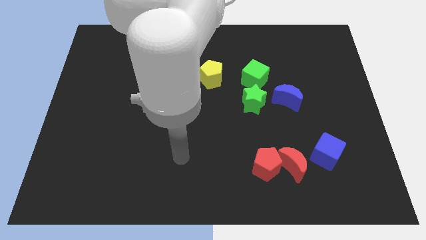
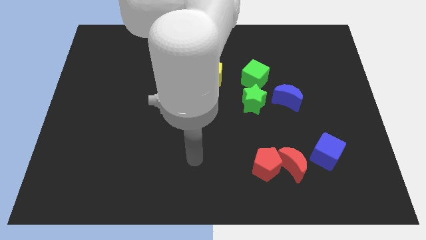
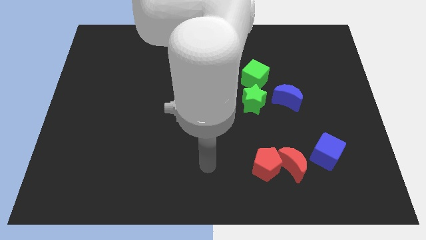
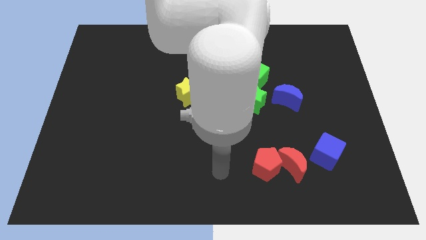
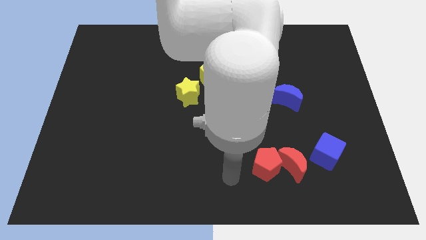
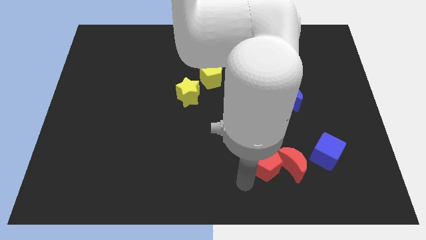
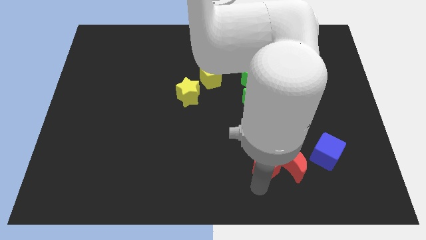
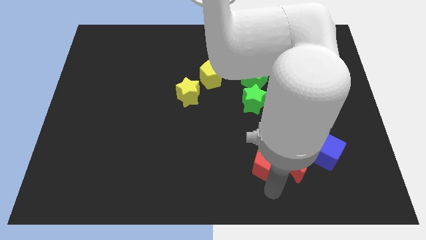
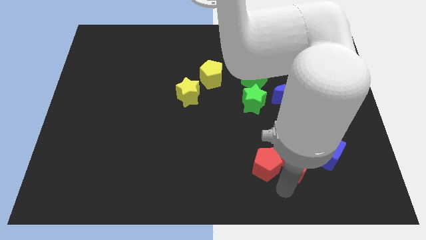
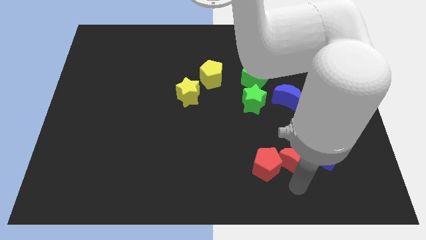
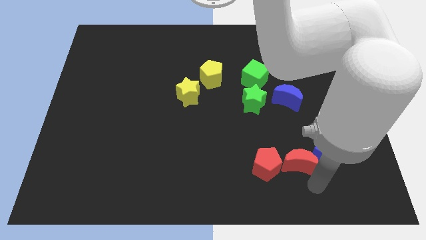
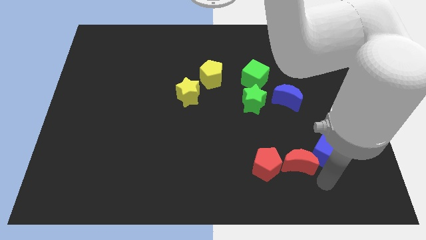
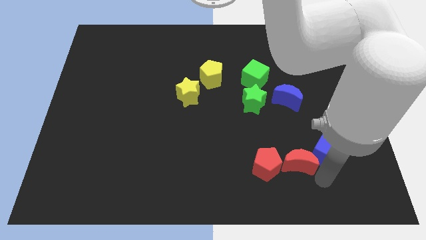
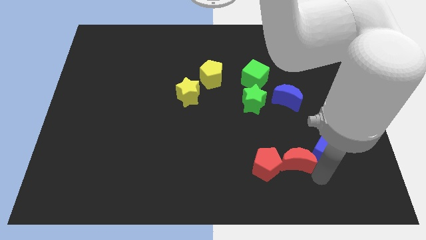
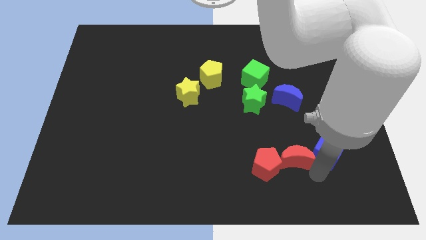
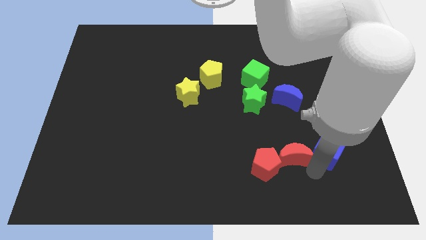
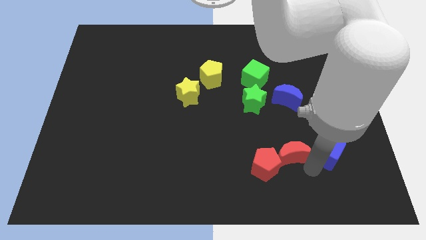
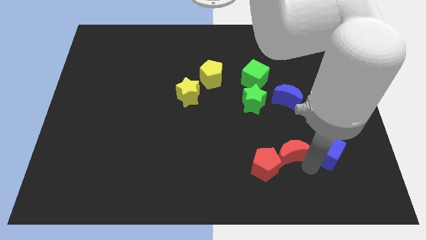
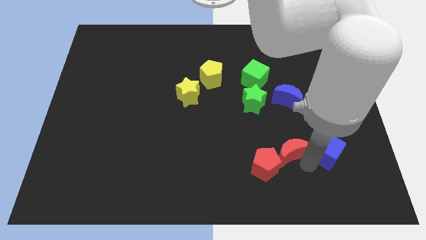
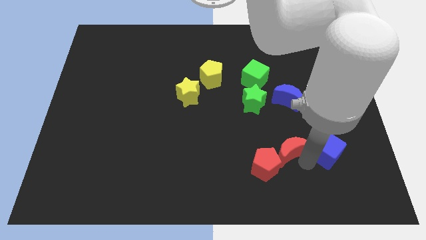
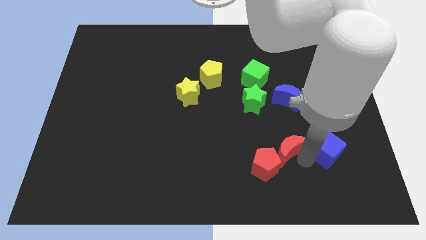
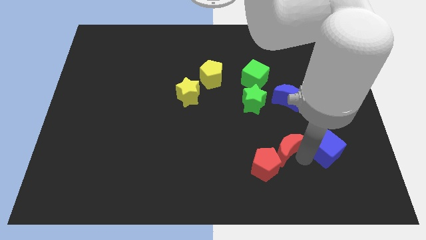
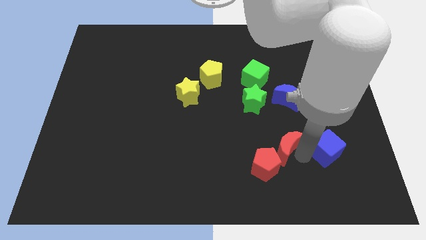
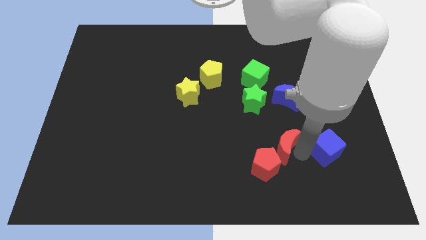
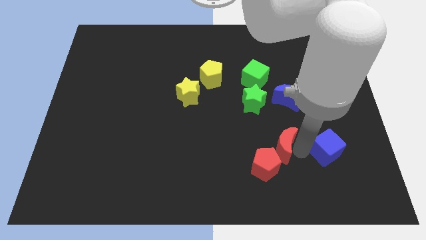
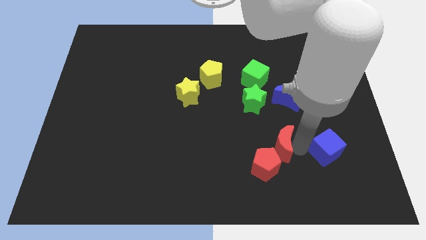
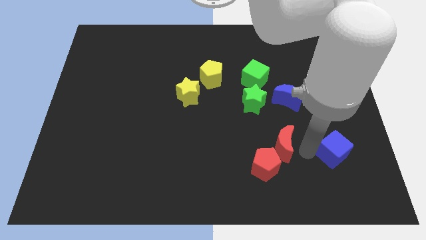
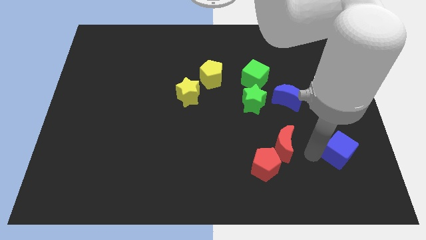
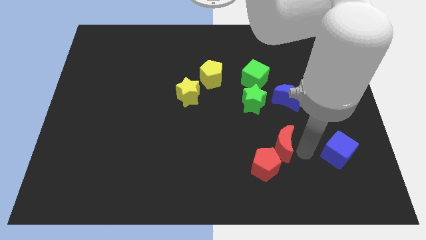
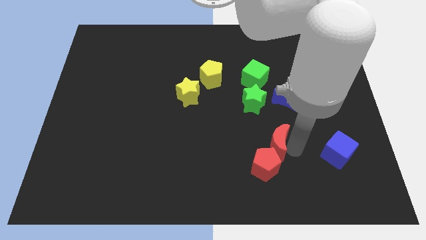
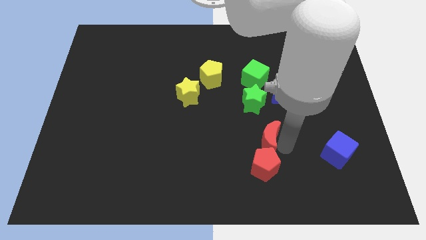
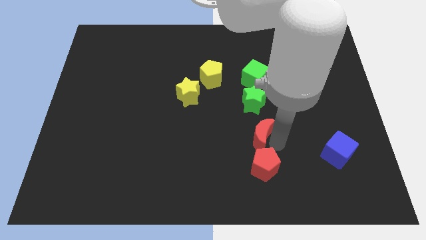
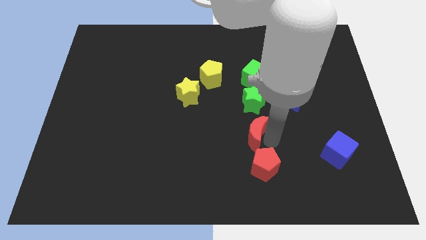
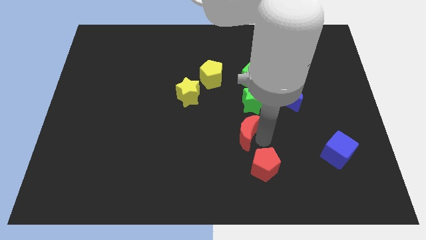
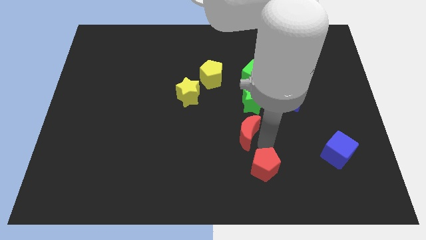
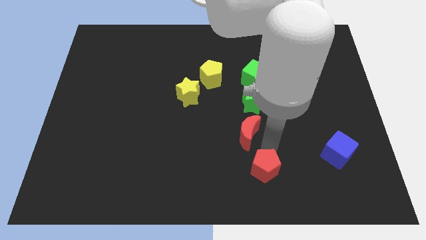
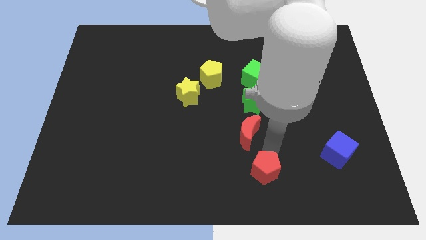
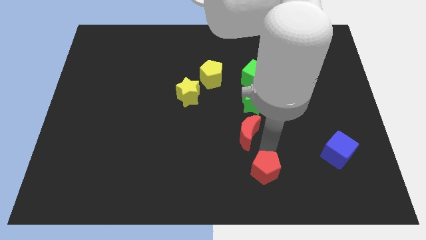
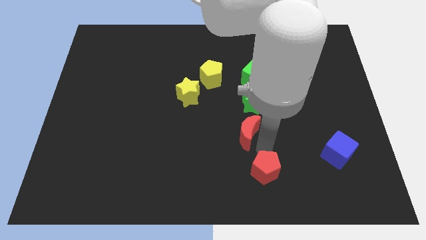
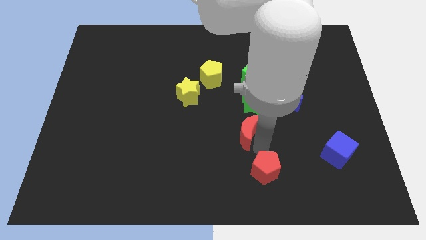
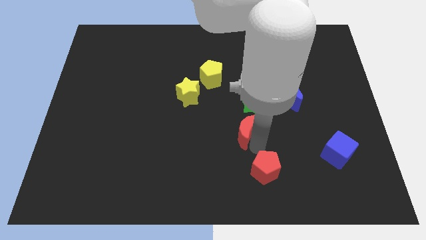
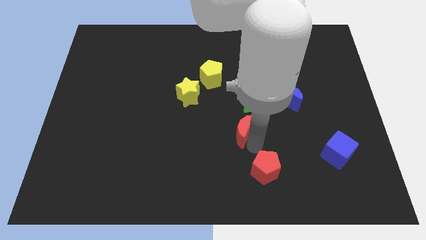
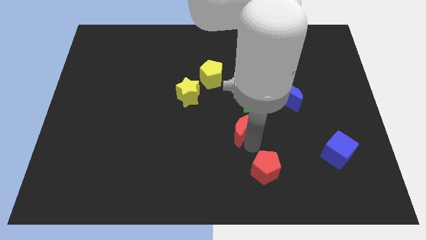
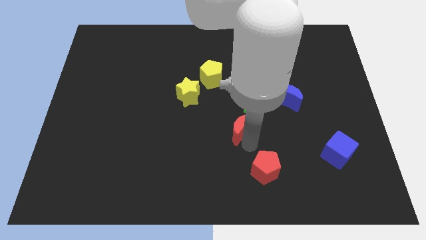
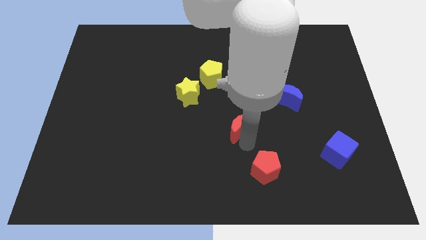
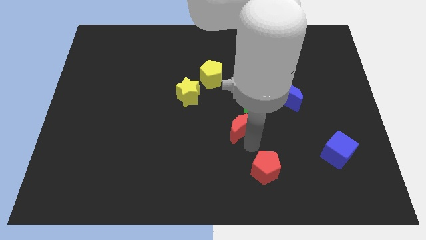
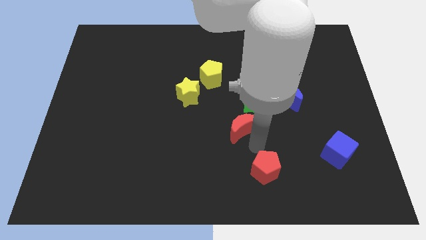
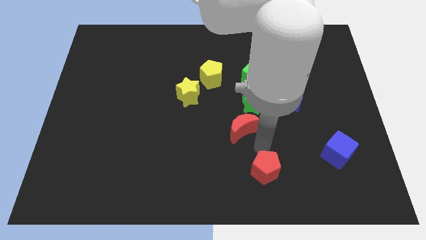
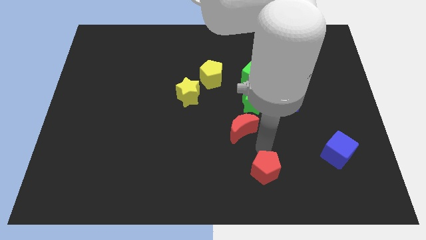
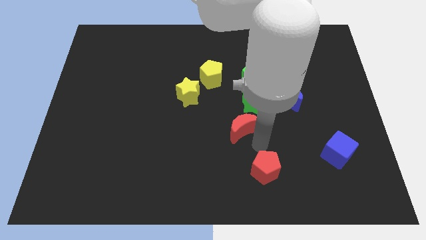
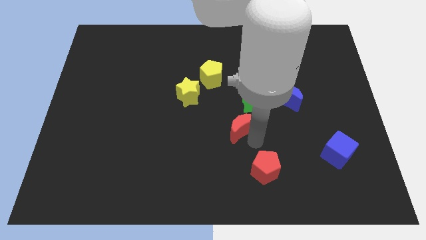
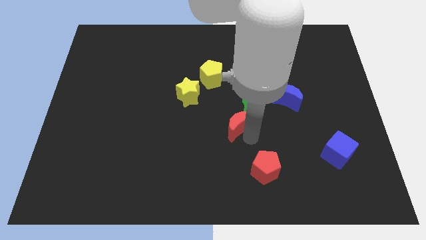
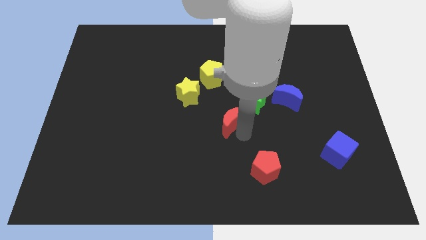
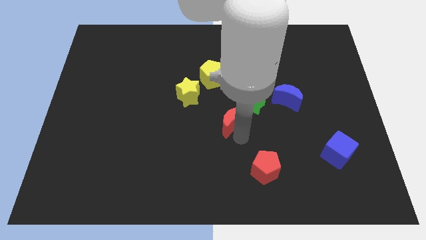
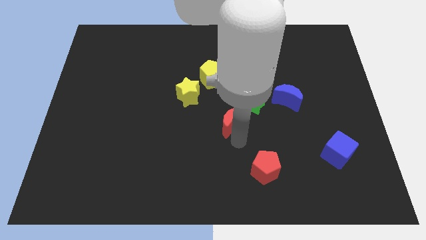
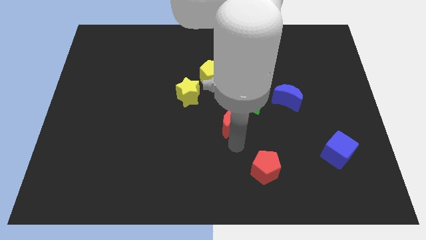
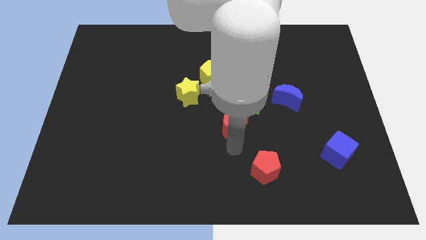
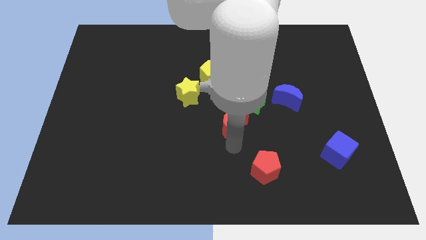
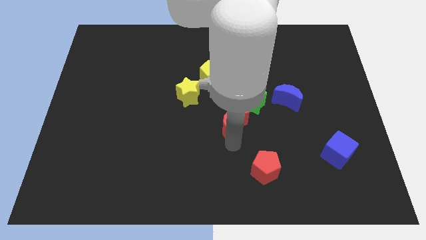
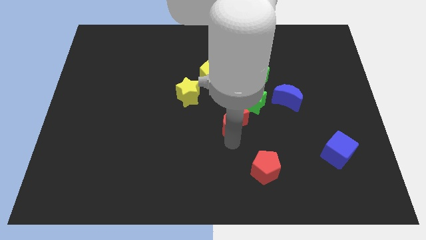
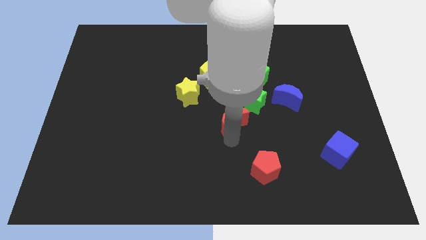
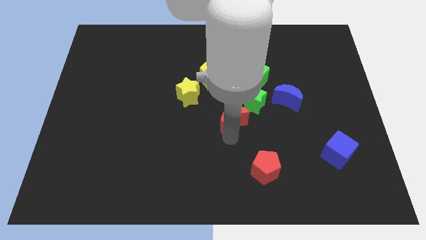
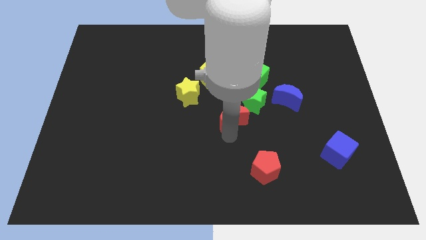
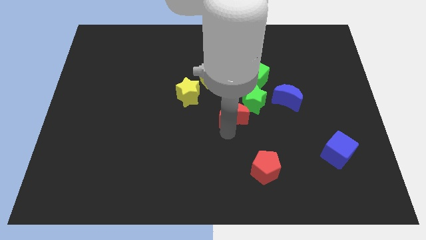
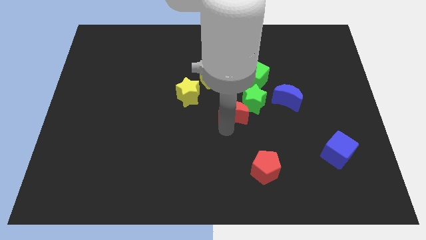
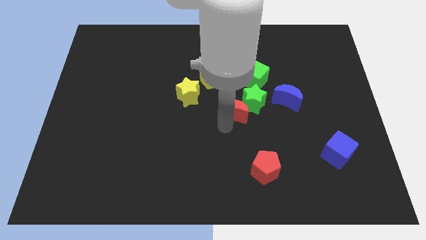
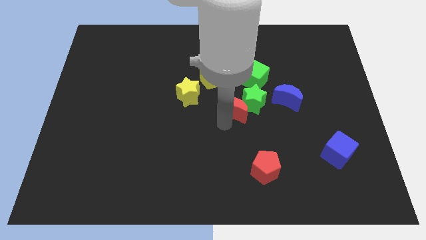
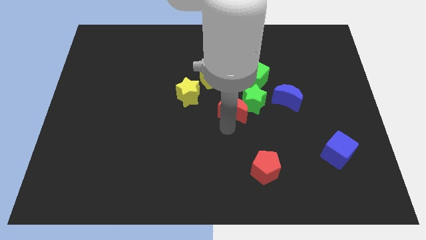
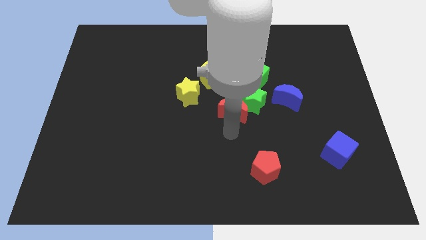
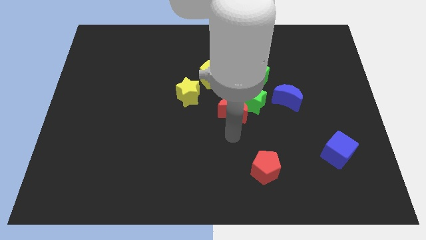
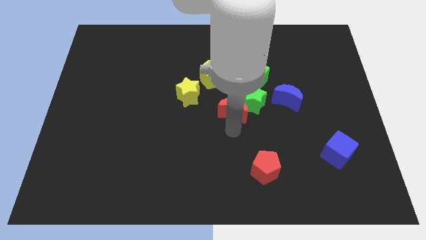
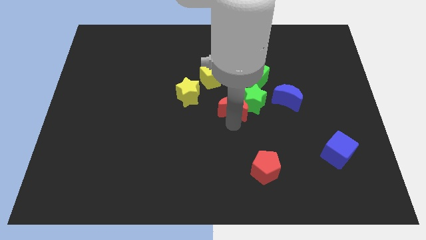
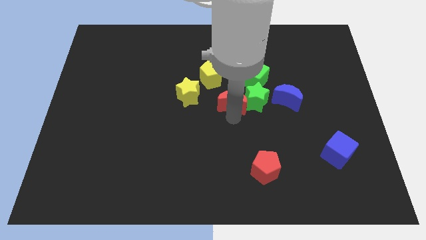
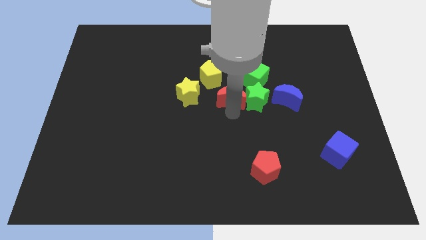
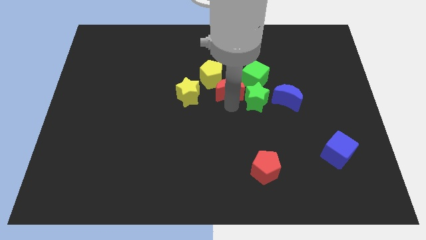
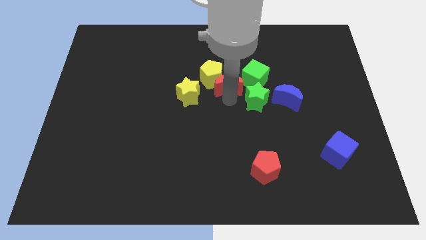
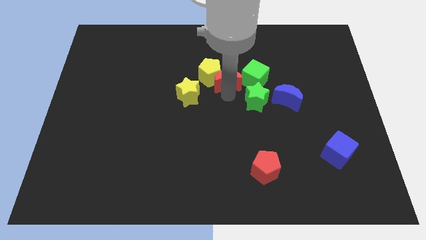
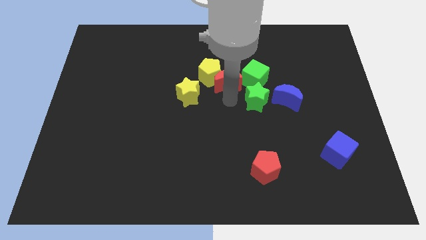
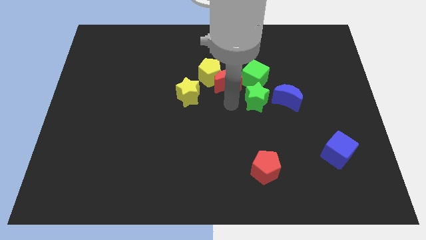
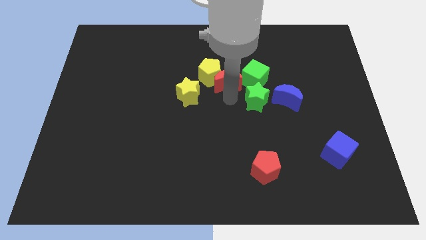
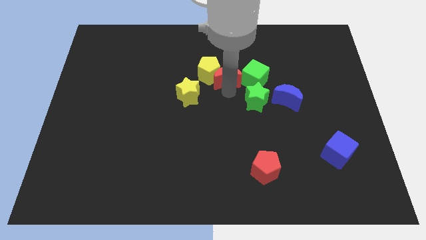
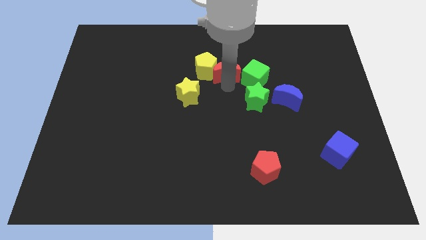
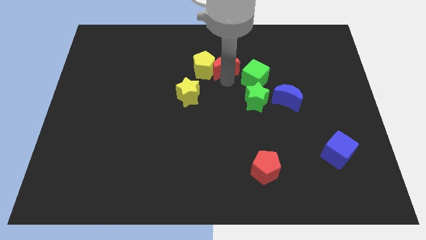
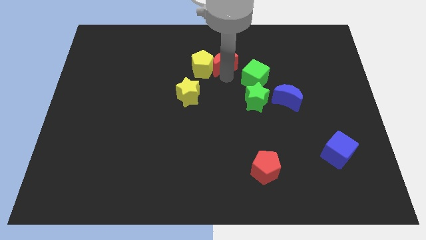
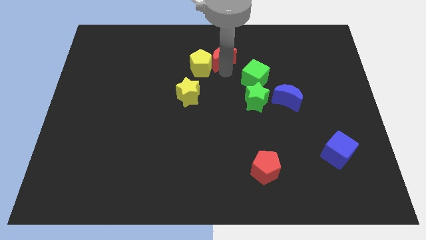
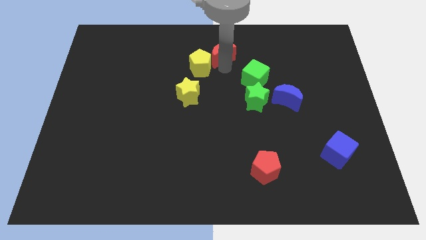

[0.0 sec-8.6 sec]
slide the red moon to the towards your base
